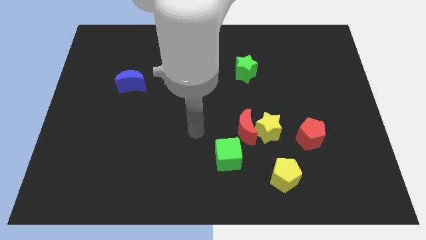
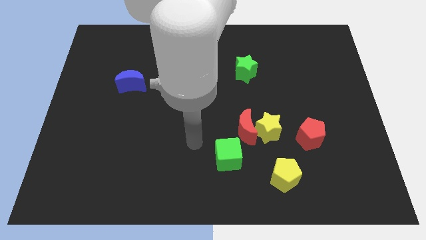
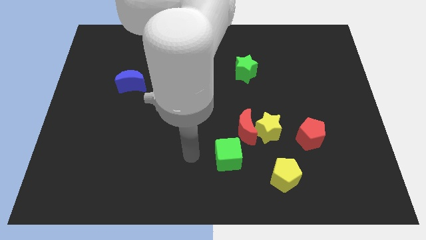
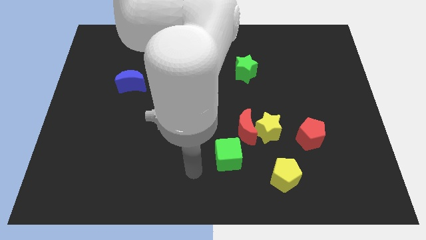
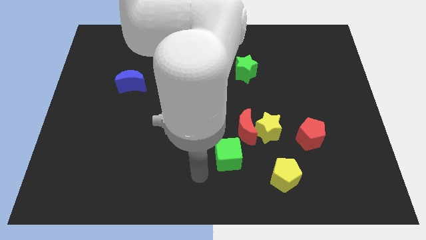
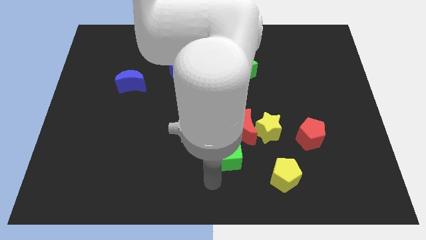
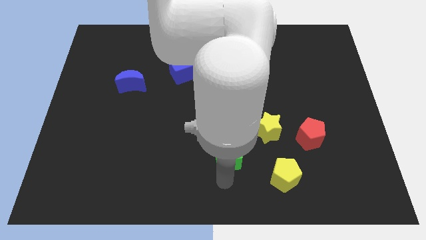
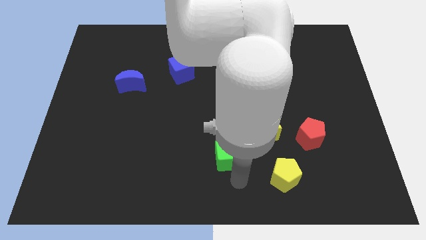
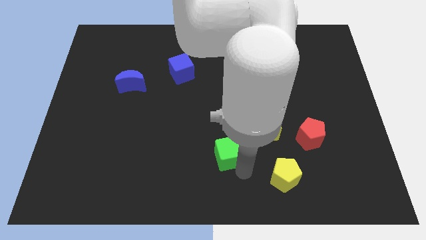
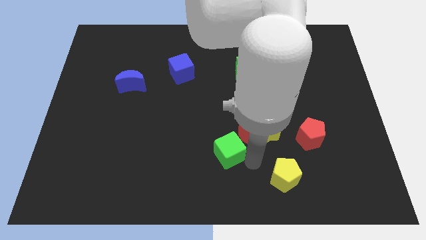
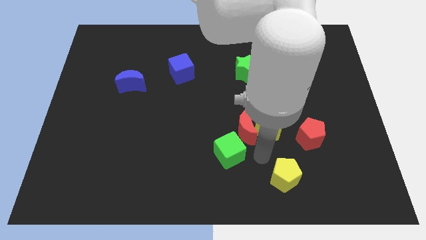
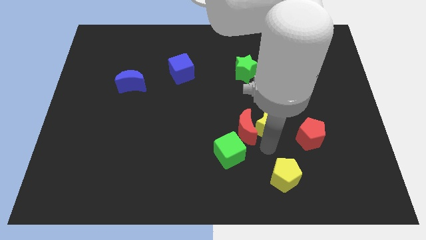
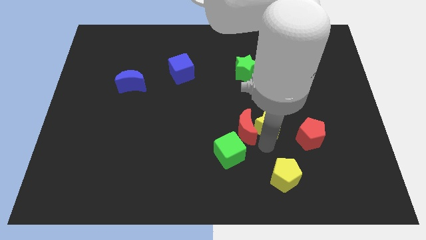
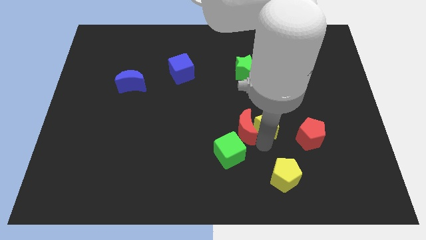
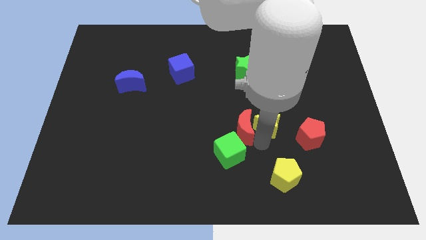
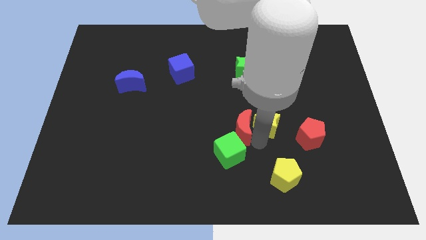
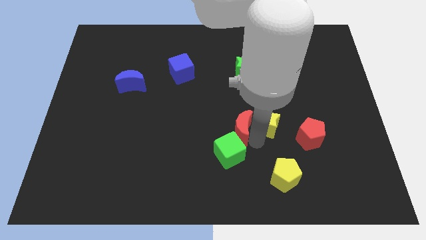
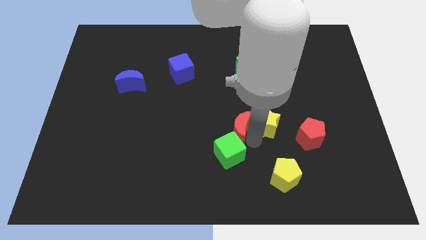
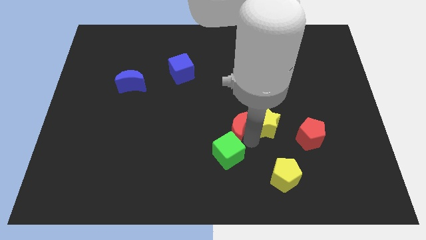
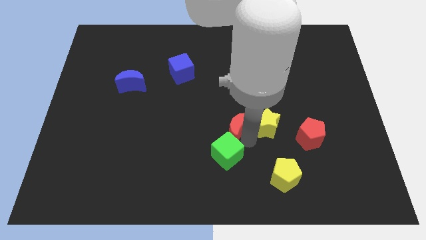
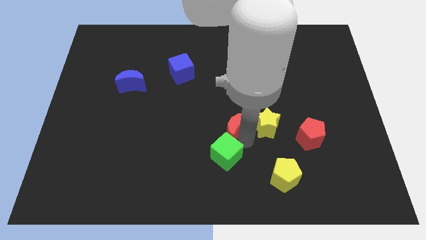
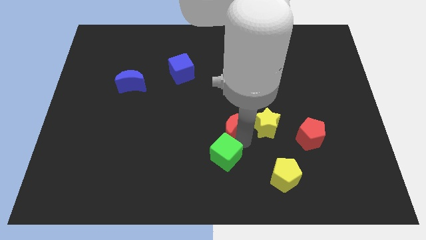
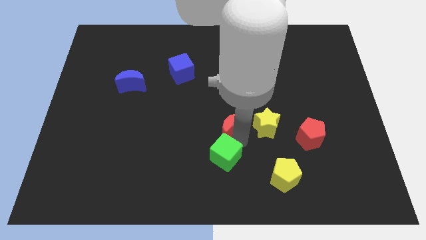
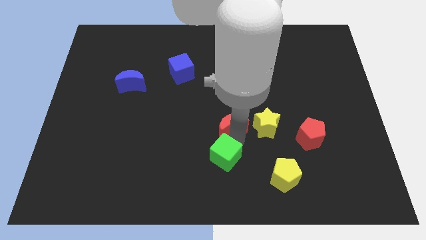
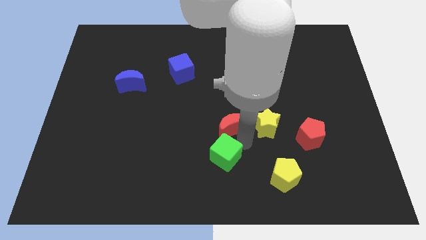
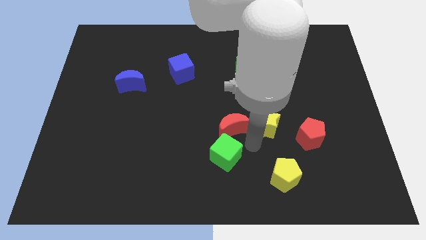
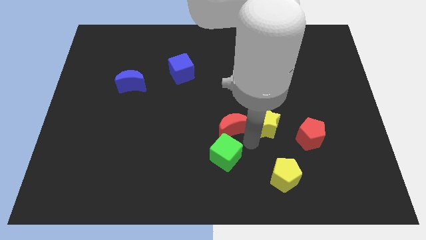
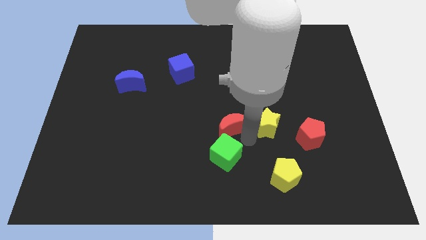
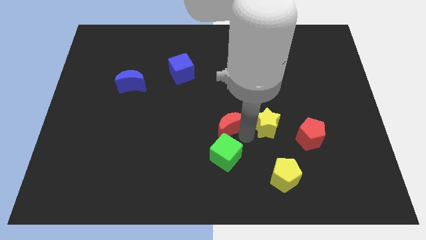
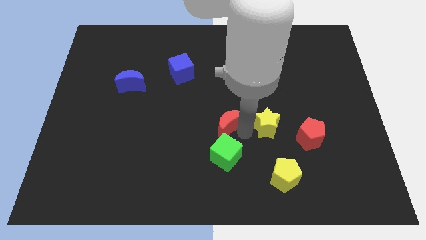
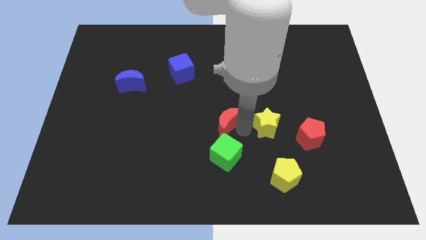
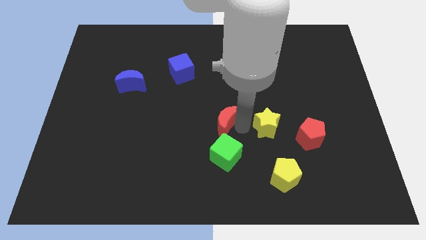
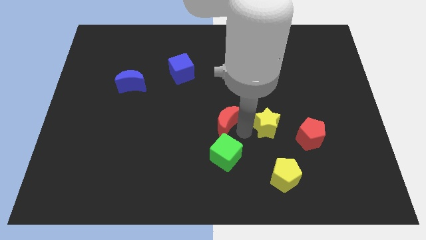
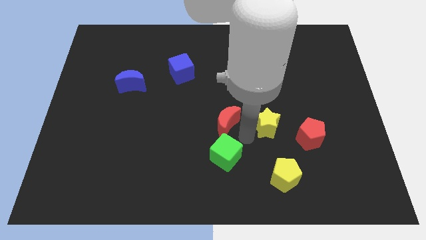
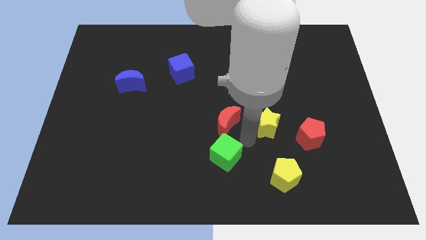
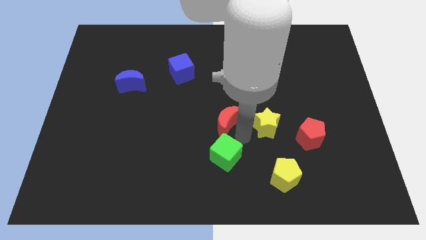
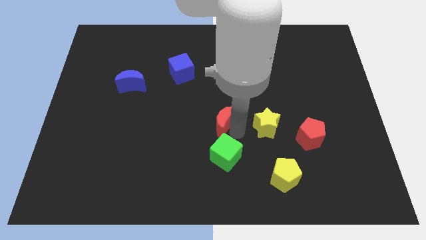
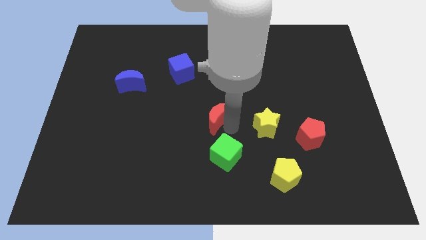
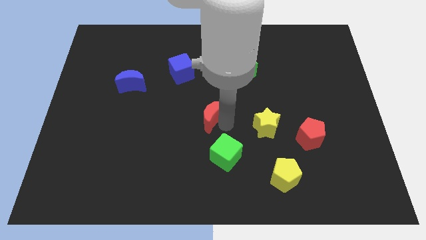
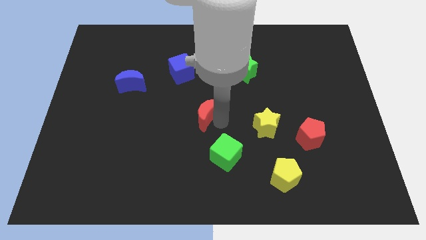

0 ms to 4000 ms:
move the red moon away from the yellow star and green cube

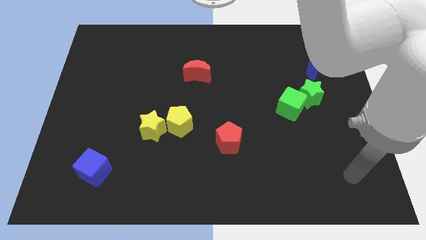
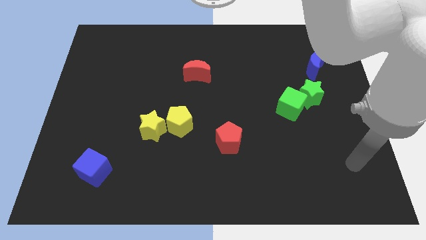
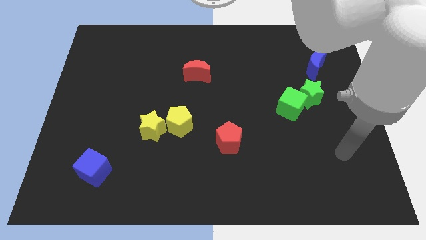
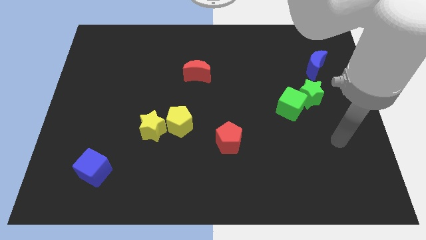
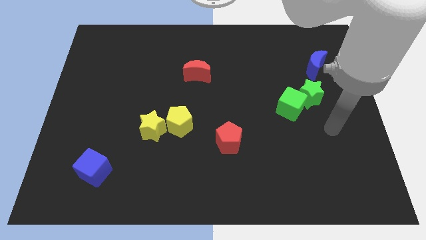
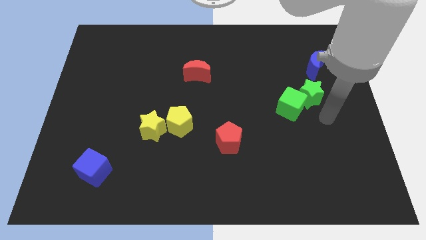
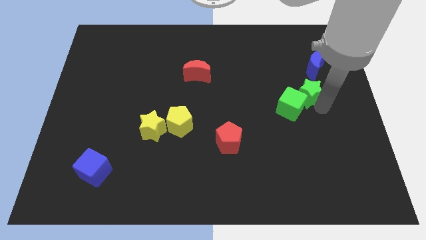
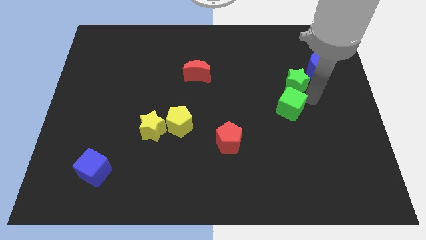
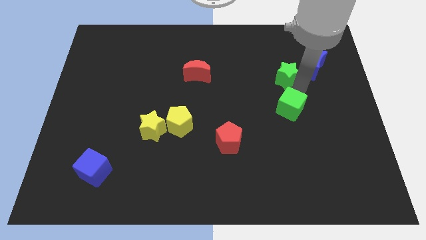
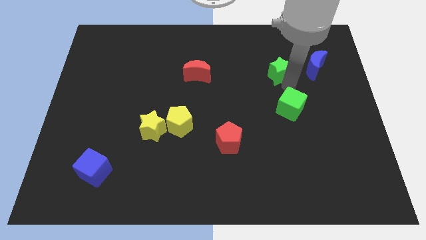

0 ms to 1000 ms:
move the green cube away from the green star

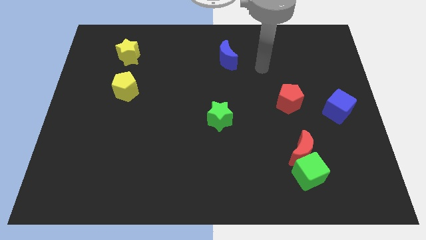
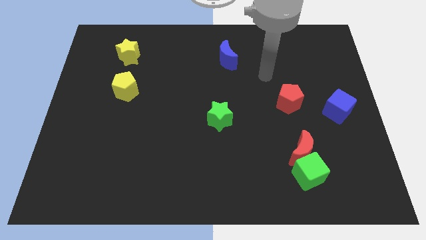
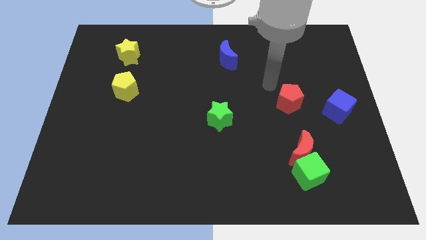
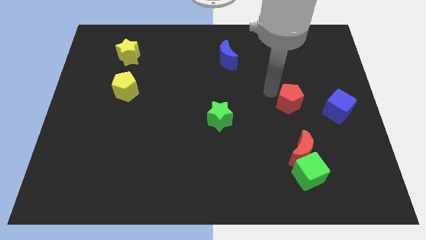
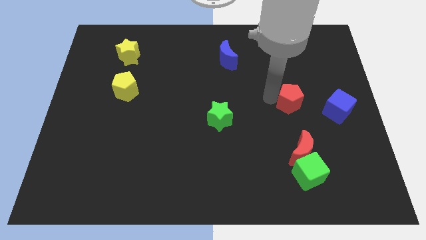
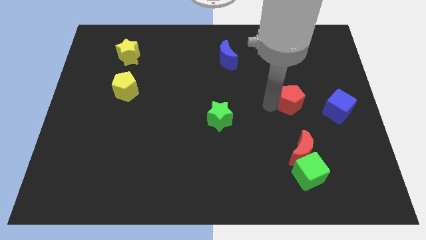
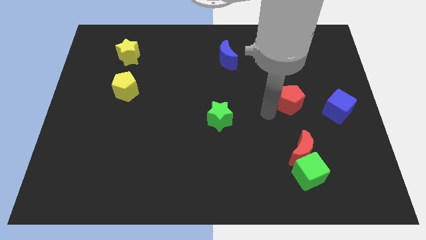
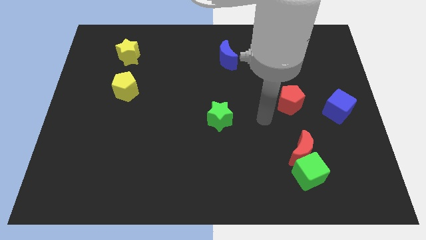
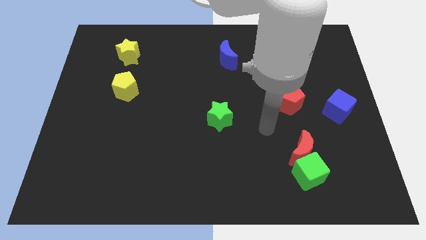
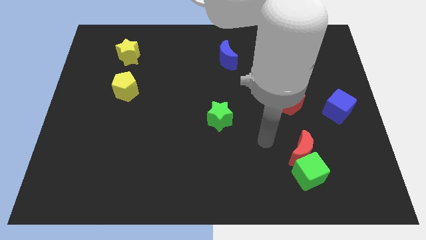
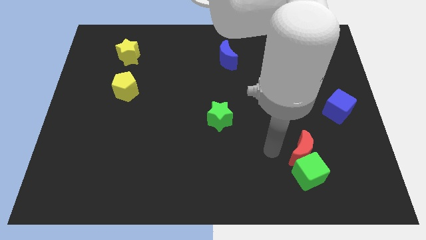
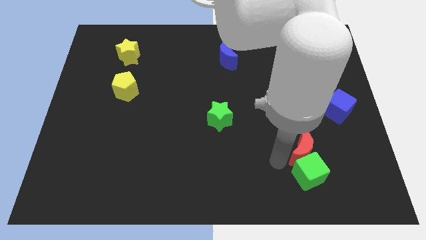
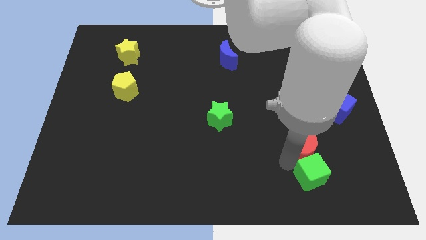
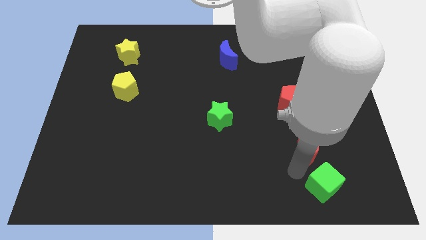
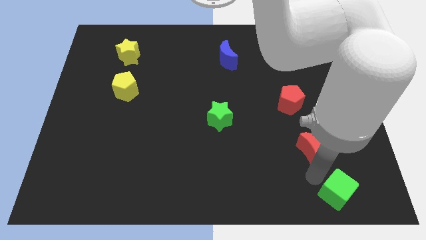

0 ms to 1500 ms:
separate the red moon from the green cube

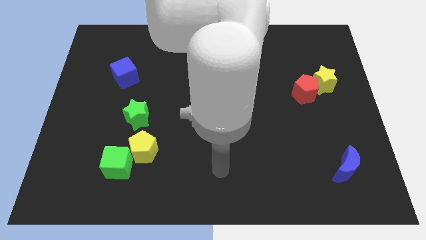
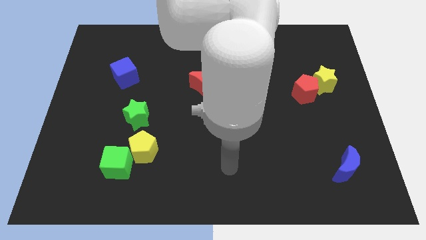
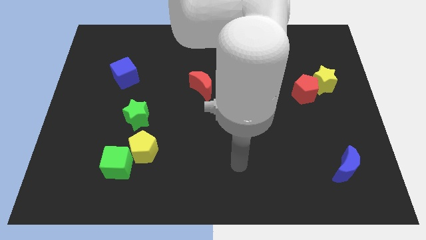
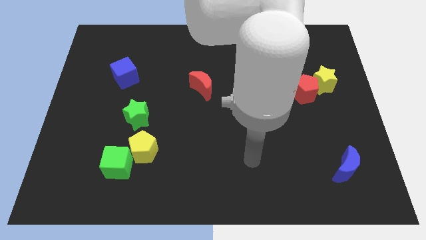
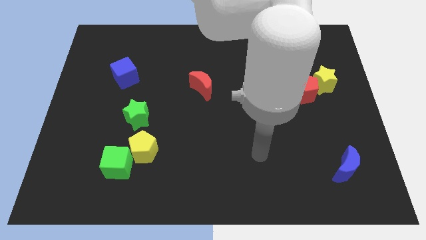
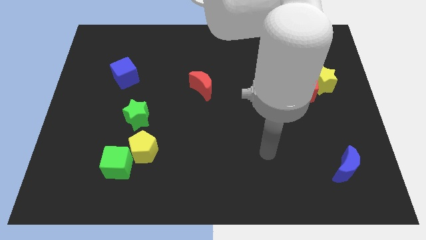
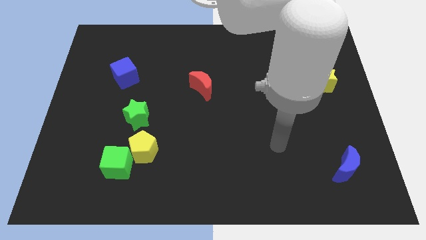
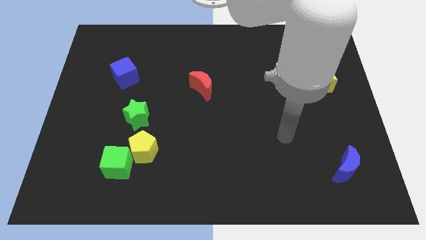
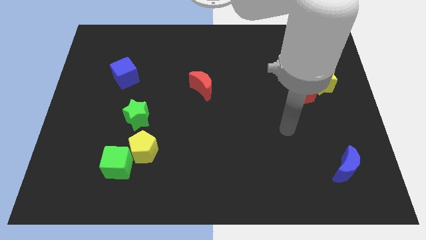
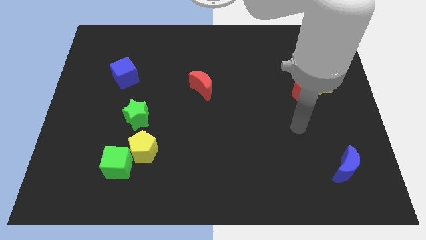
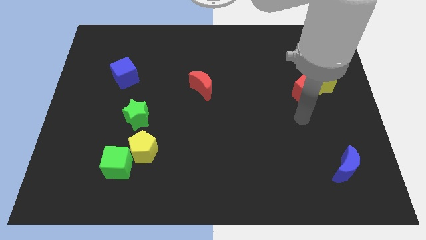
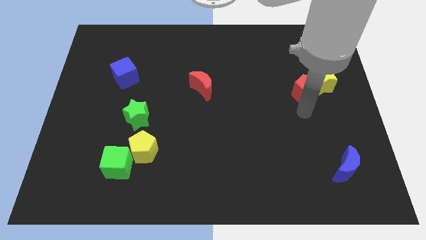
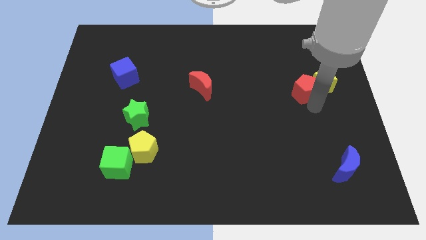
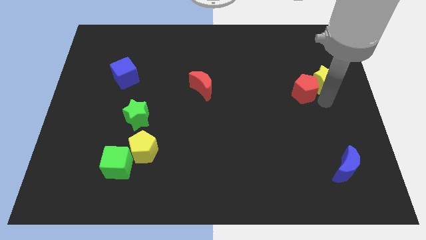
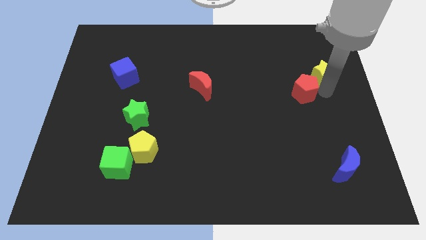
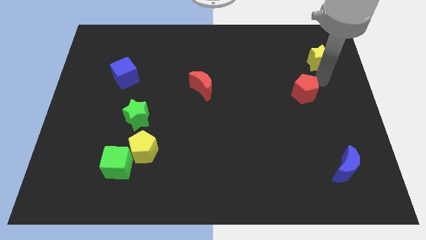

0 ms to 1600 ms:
pull the red pentagon apart from the yellow star

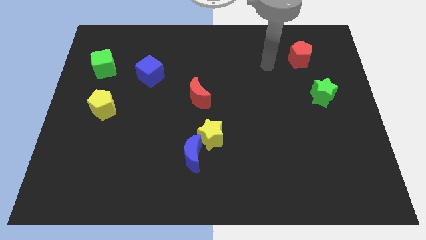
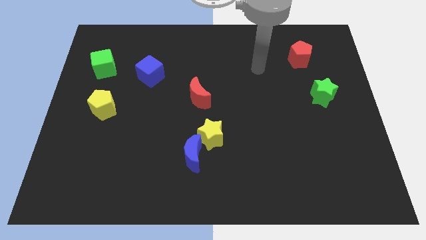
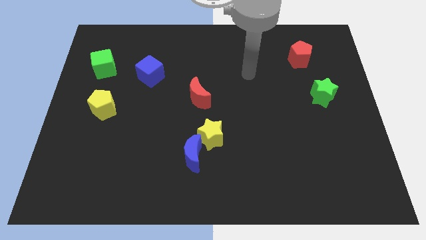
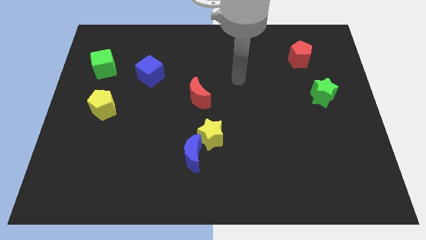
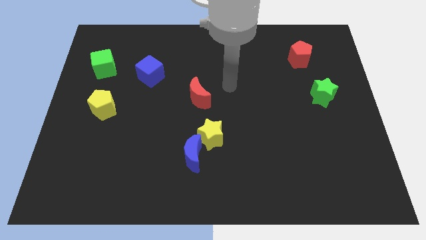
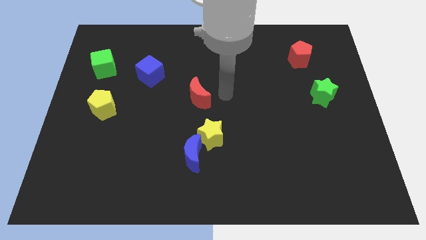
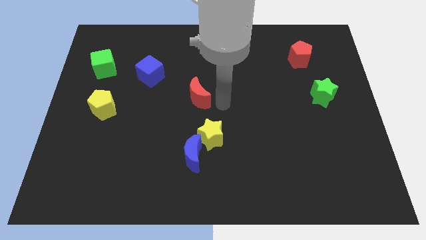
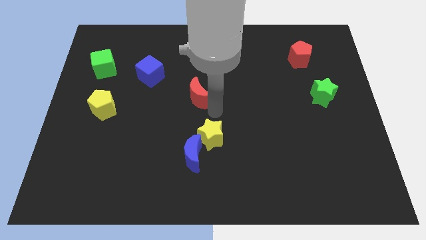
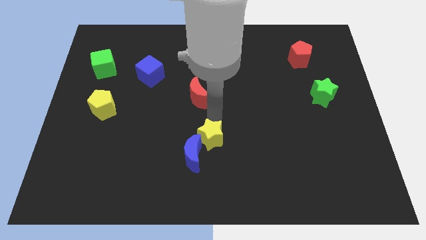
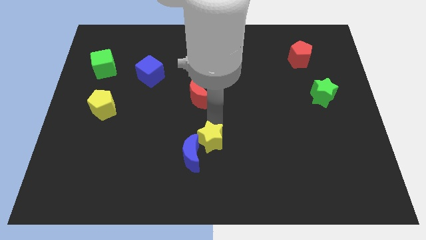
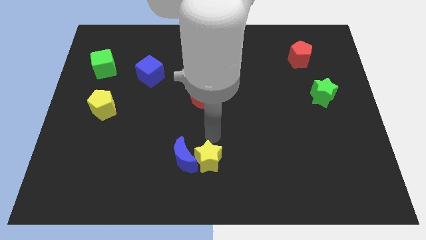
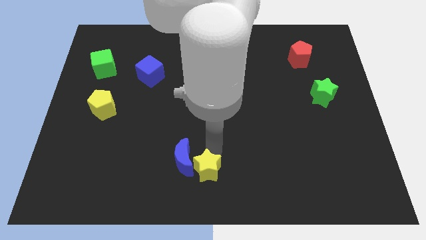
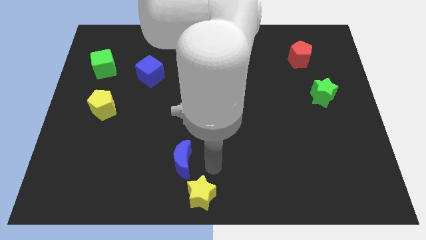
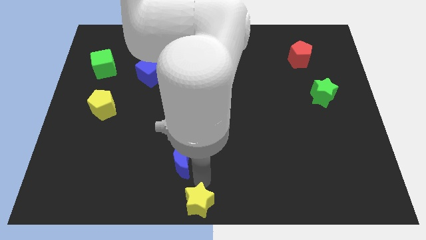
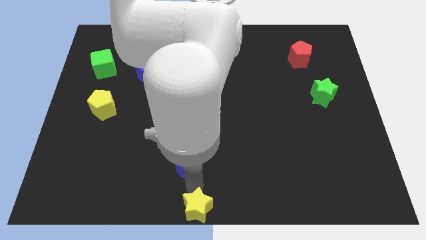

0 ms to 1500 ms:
move the blue moon away from the yellow star
